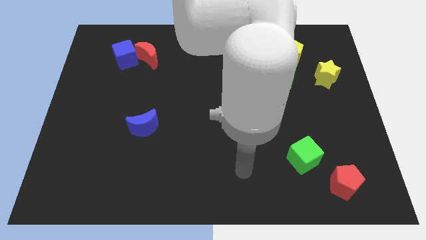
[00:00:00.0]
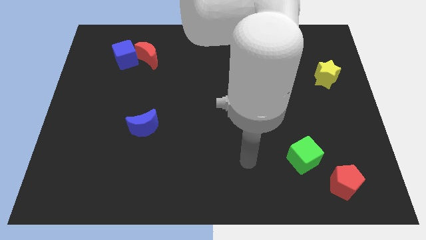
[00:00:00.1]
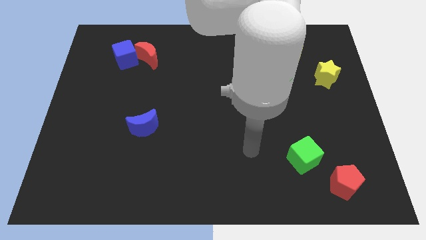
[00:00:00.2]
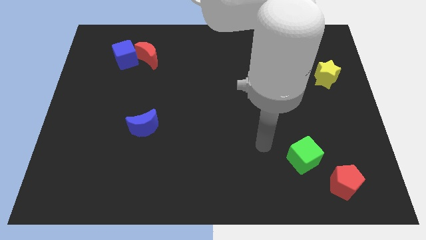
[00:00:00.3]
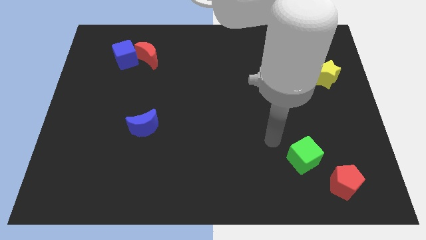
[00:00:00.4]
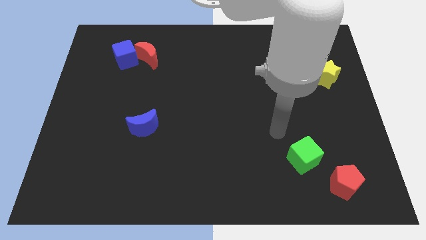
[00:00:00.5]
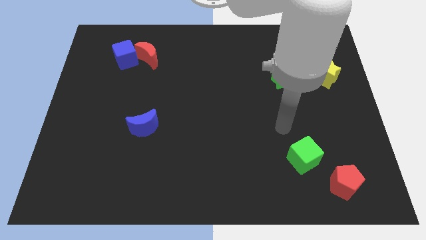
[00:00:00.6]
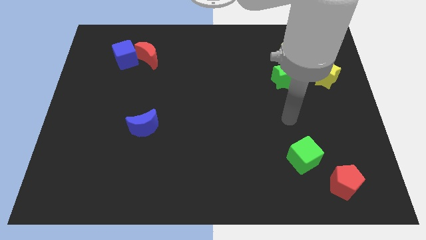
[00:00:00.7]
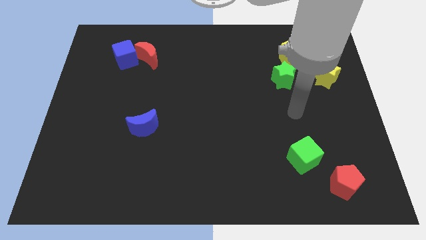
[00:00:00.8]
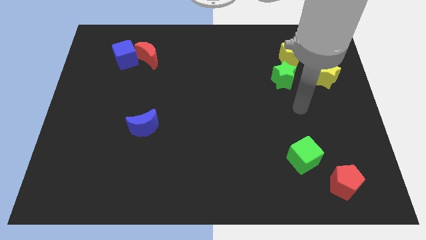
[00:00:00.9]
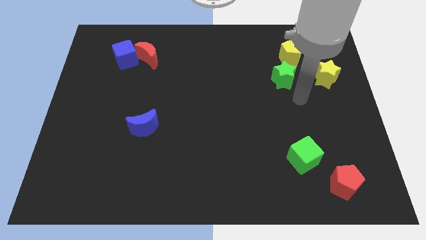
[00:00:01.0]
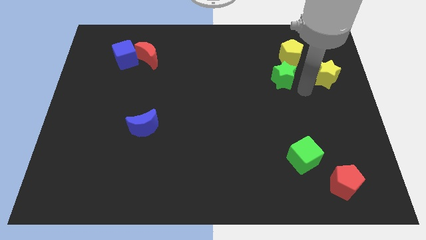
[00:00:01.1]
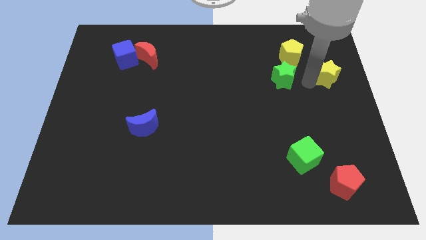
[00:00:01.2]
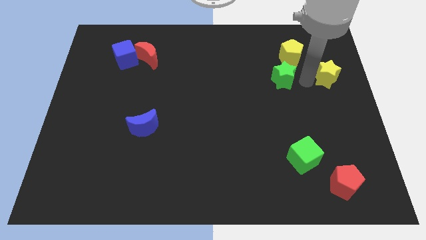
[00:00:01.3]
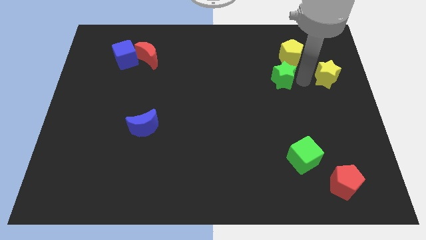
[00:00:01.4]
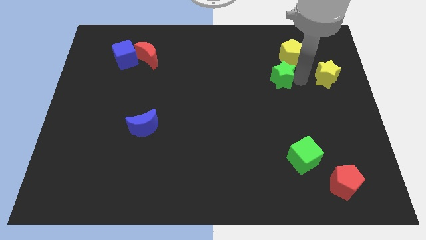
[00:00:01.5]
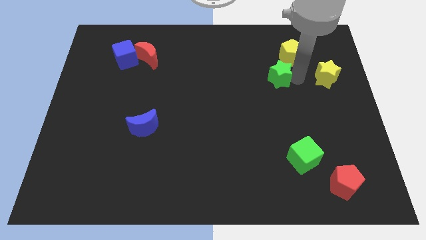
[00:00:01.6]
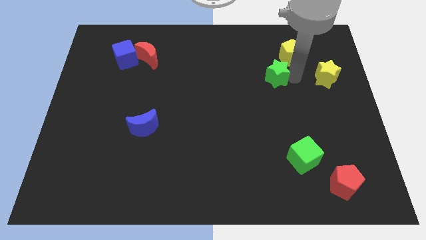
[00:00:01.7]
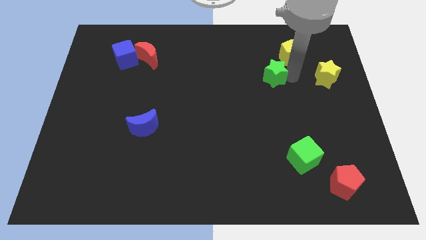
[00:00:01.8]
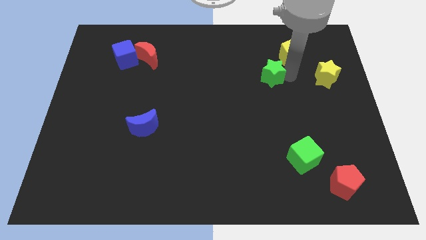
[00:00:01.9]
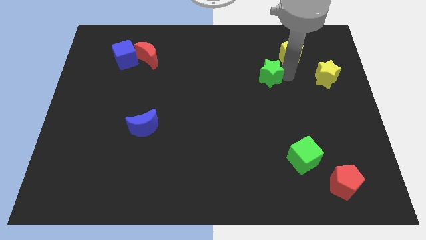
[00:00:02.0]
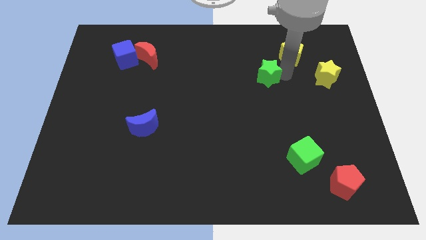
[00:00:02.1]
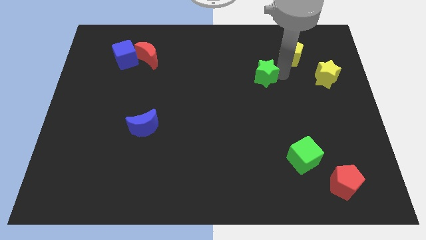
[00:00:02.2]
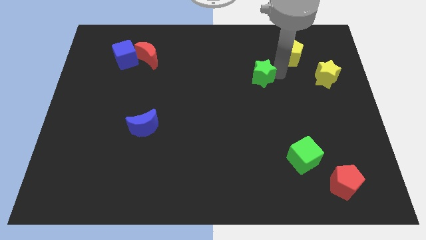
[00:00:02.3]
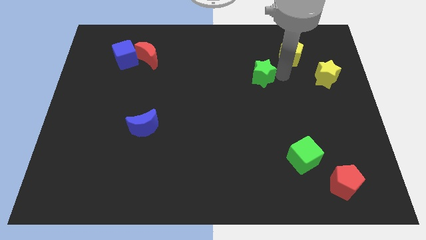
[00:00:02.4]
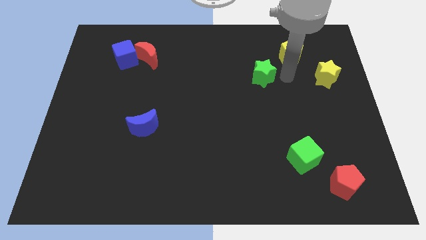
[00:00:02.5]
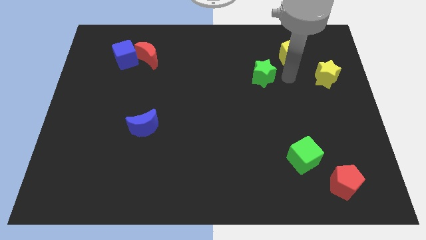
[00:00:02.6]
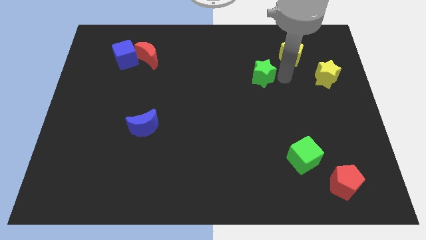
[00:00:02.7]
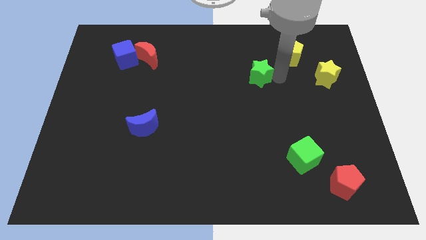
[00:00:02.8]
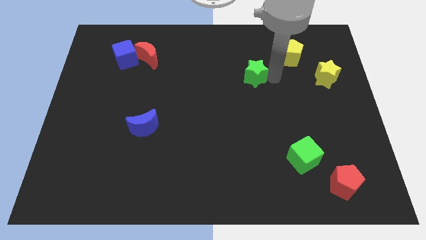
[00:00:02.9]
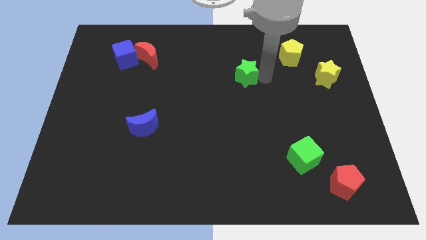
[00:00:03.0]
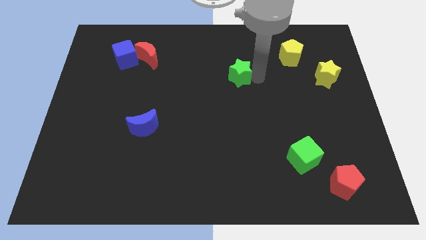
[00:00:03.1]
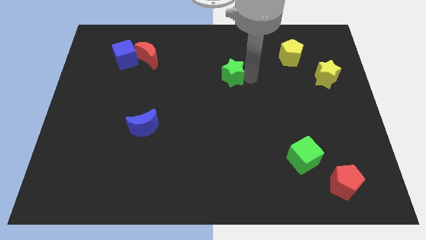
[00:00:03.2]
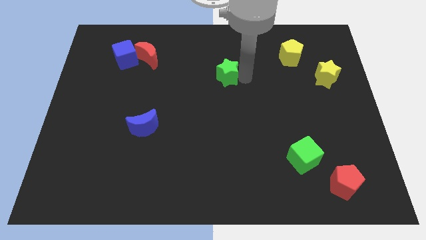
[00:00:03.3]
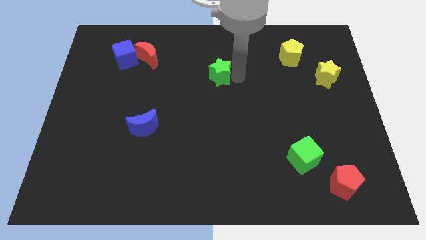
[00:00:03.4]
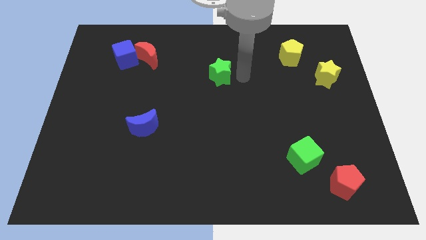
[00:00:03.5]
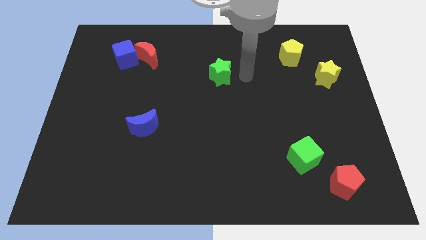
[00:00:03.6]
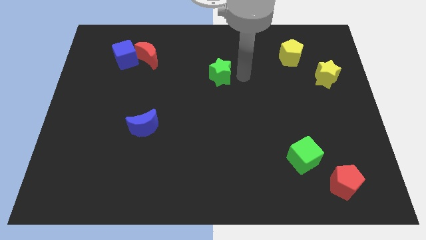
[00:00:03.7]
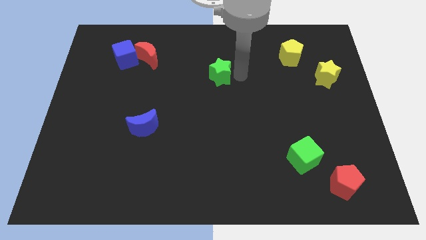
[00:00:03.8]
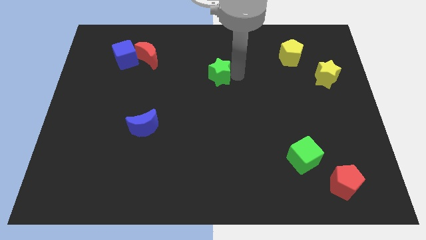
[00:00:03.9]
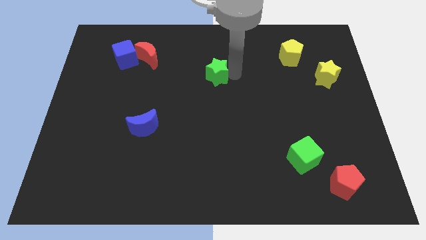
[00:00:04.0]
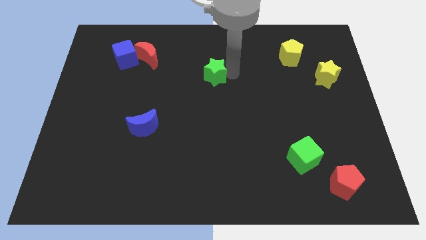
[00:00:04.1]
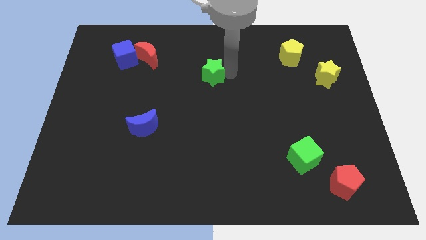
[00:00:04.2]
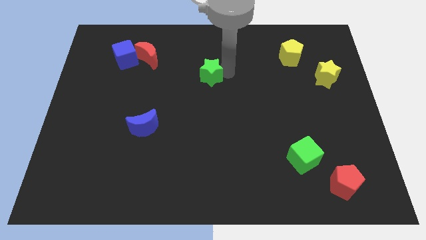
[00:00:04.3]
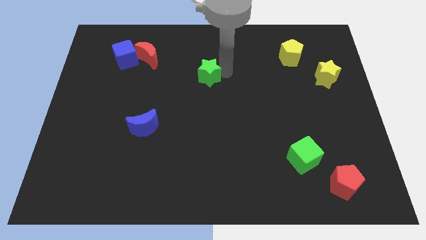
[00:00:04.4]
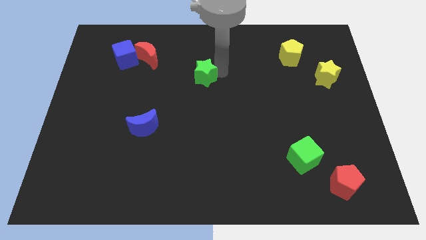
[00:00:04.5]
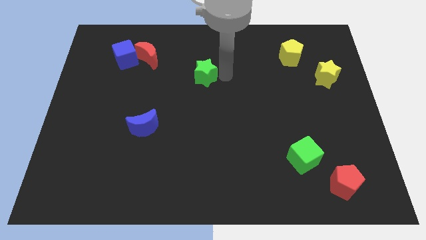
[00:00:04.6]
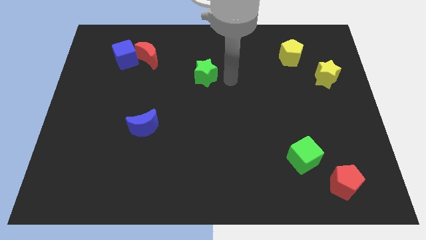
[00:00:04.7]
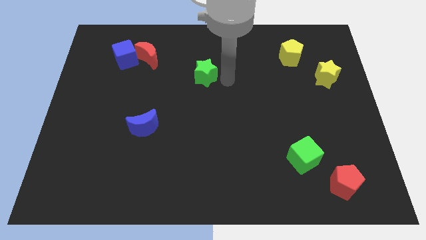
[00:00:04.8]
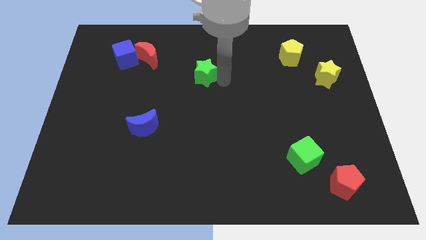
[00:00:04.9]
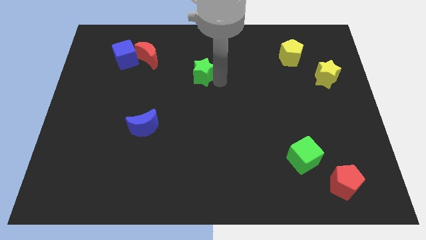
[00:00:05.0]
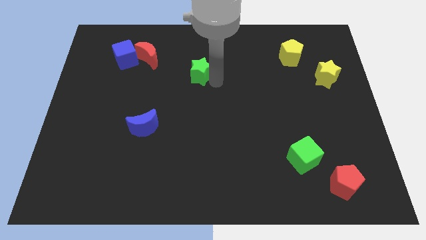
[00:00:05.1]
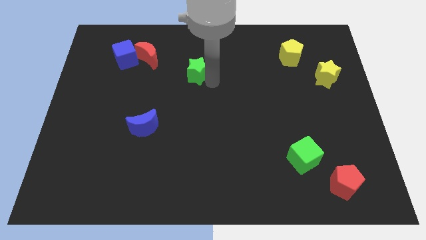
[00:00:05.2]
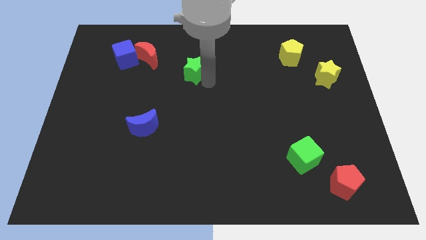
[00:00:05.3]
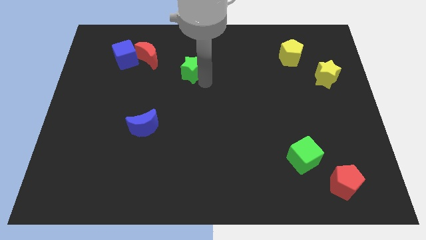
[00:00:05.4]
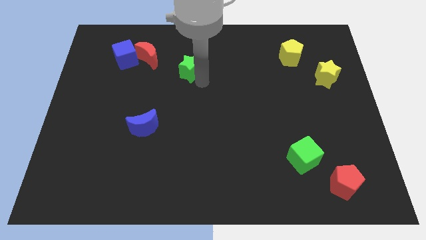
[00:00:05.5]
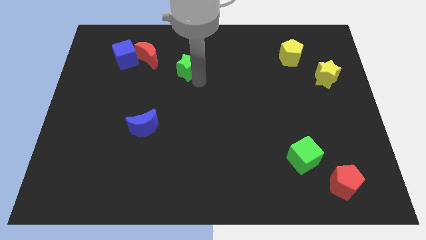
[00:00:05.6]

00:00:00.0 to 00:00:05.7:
put the green star to the bottom right side of the red moon

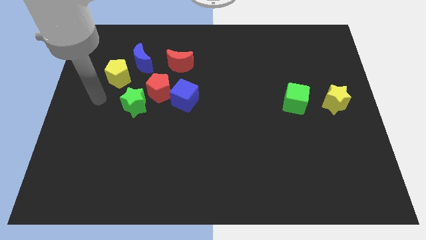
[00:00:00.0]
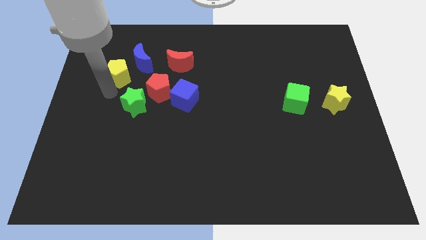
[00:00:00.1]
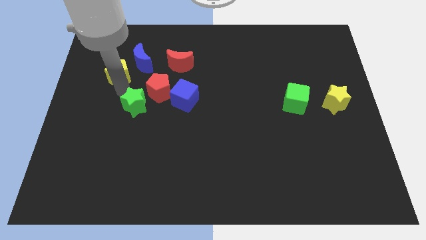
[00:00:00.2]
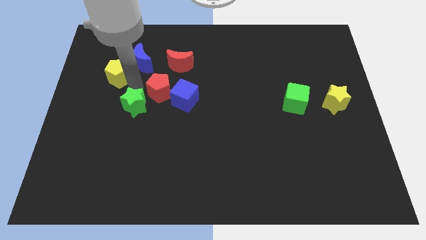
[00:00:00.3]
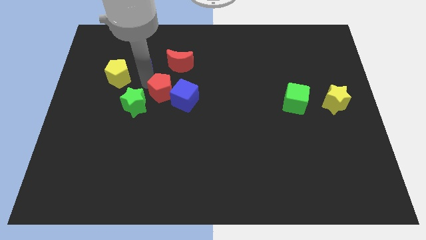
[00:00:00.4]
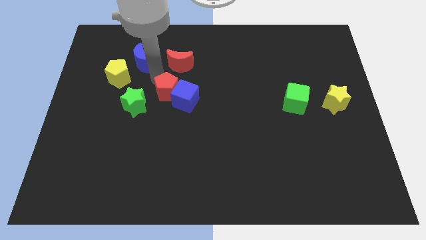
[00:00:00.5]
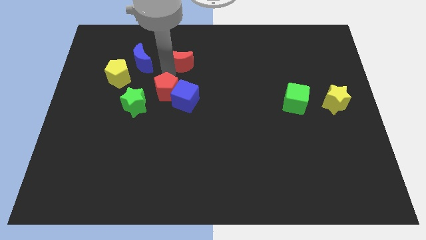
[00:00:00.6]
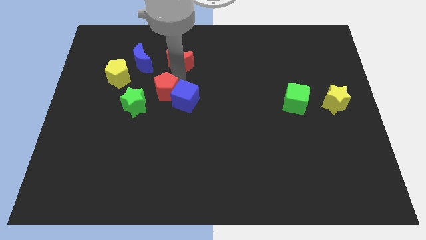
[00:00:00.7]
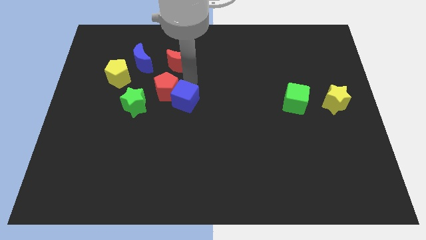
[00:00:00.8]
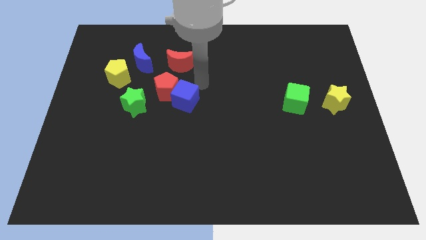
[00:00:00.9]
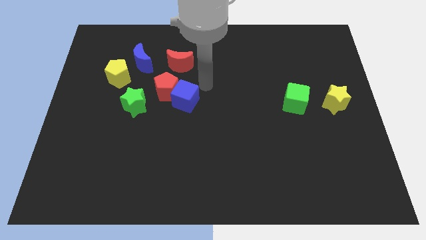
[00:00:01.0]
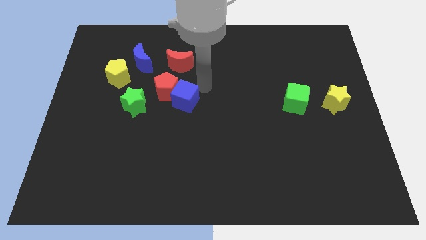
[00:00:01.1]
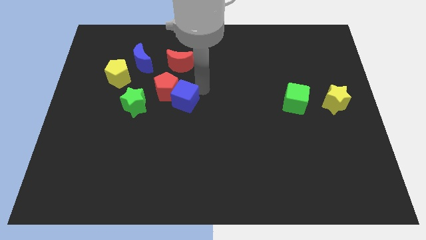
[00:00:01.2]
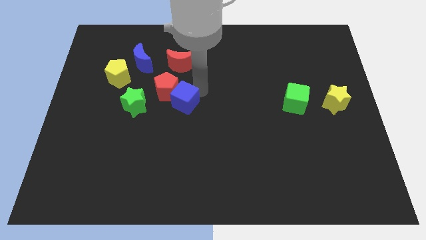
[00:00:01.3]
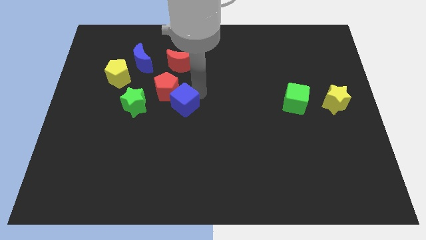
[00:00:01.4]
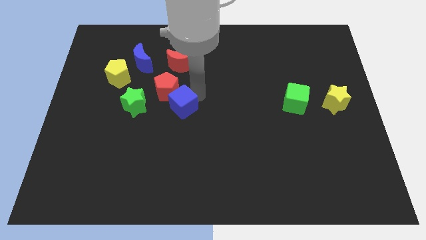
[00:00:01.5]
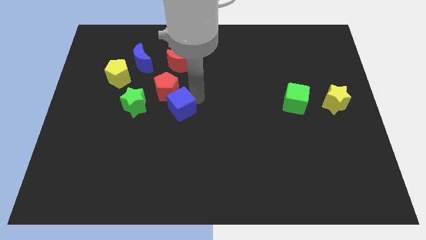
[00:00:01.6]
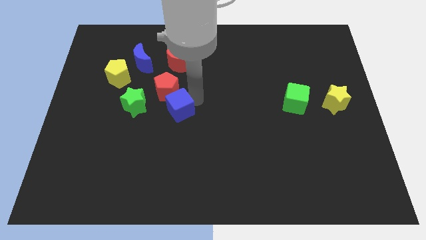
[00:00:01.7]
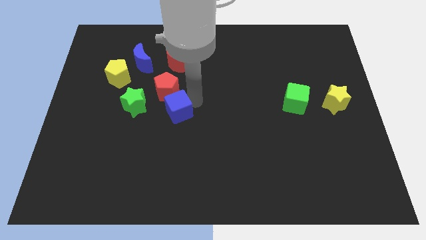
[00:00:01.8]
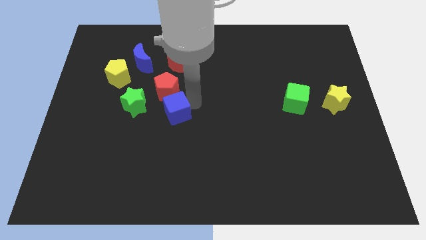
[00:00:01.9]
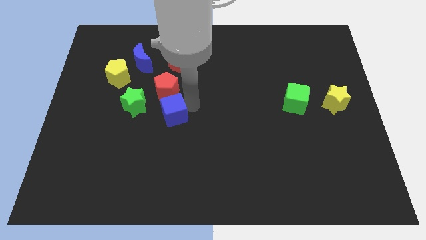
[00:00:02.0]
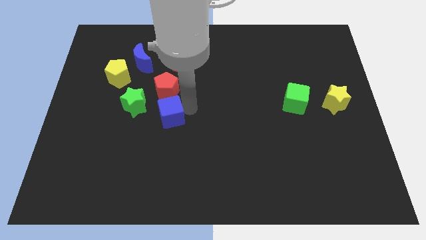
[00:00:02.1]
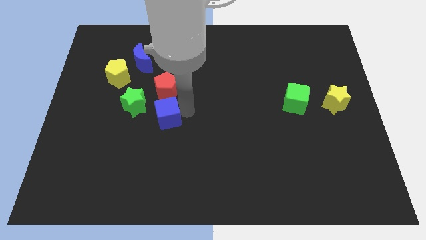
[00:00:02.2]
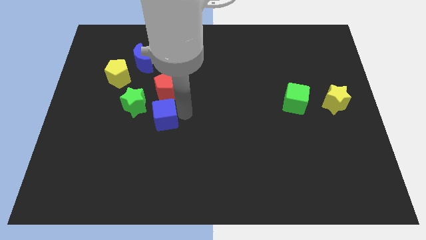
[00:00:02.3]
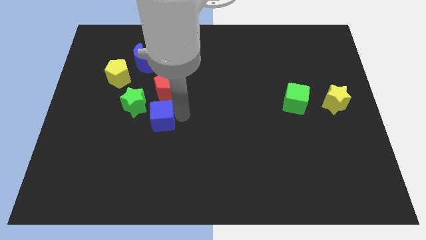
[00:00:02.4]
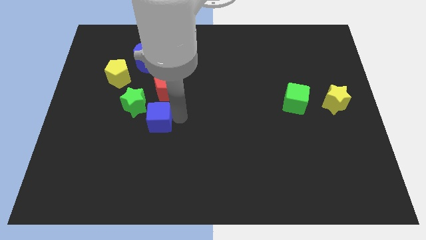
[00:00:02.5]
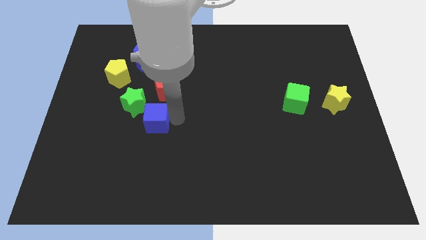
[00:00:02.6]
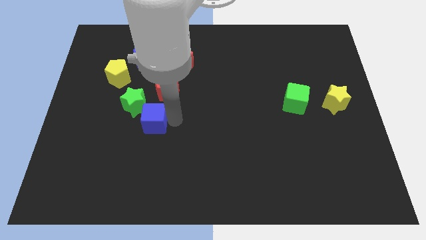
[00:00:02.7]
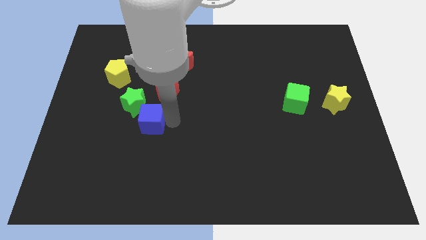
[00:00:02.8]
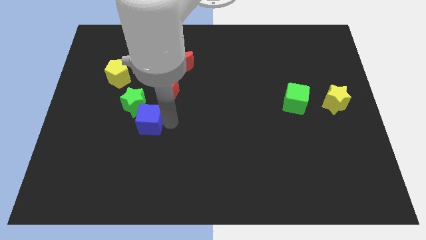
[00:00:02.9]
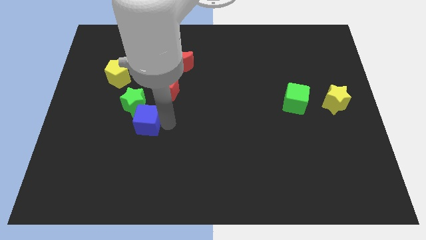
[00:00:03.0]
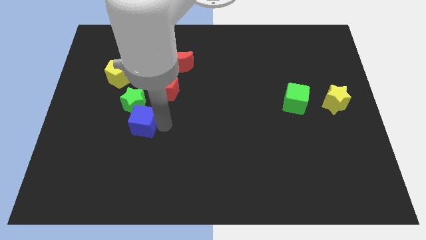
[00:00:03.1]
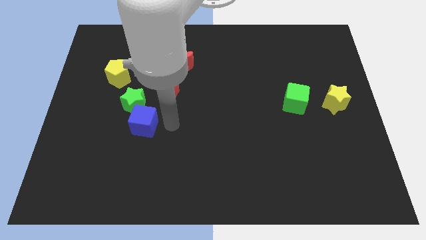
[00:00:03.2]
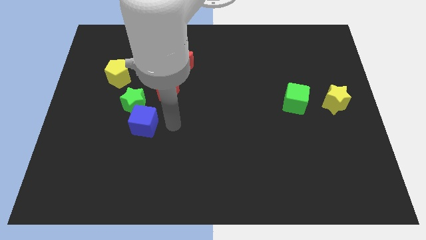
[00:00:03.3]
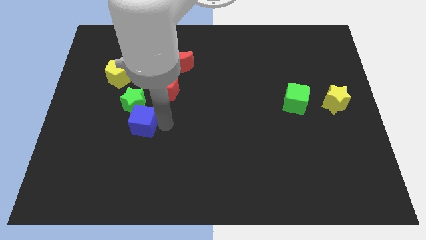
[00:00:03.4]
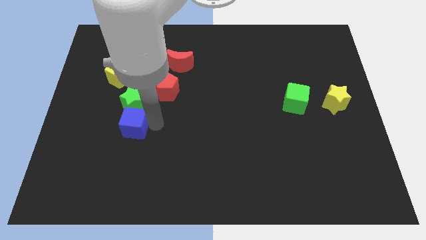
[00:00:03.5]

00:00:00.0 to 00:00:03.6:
push the blue cube to the bottom left of the green star
